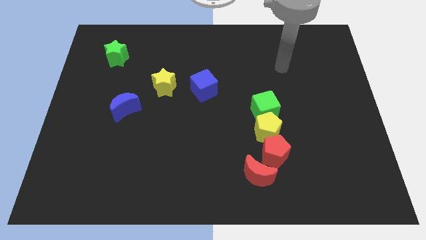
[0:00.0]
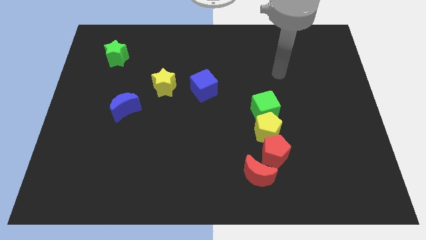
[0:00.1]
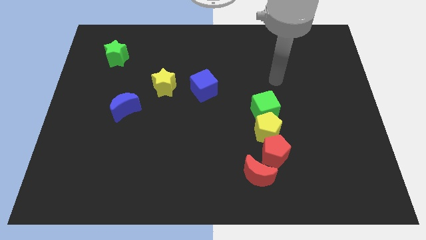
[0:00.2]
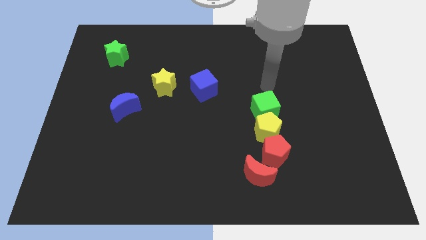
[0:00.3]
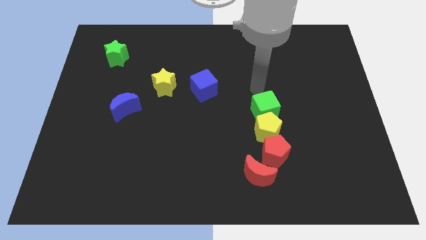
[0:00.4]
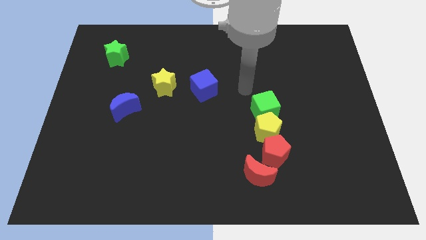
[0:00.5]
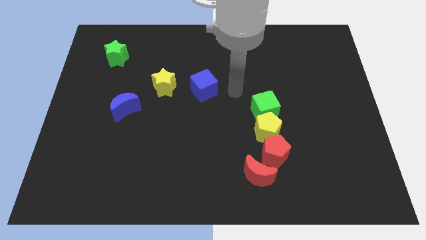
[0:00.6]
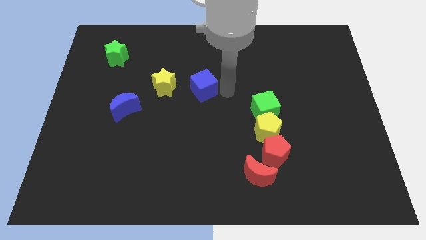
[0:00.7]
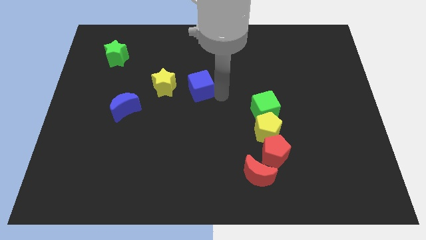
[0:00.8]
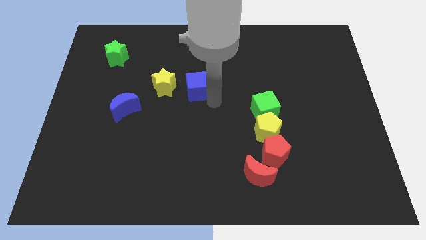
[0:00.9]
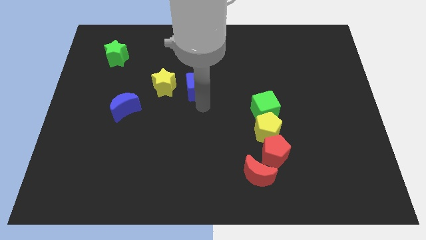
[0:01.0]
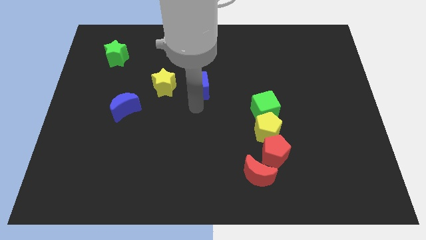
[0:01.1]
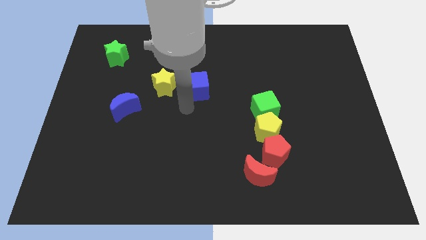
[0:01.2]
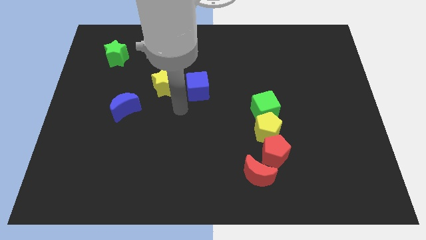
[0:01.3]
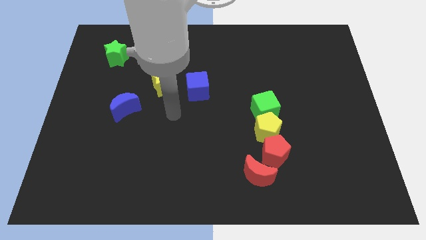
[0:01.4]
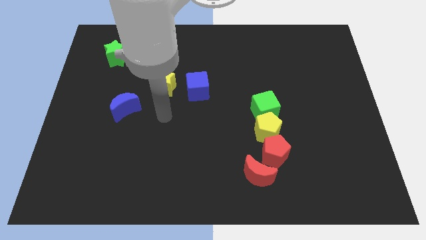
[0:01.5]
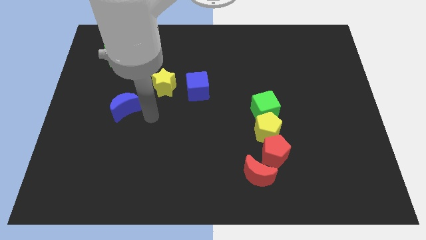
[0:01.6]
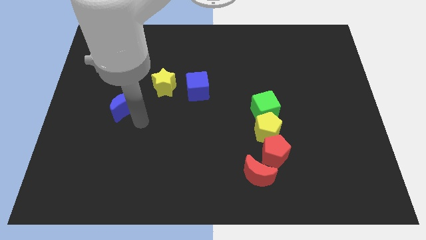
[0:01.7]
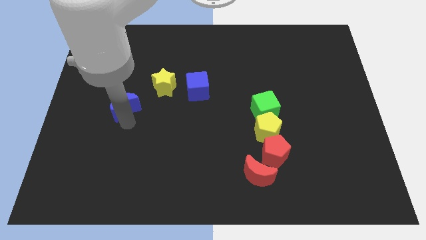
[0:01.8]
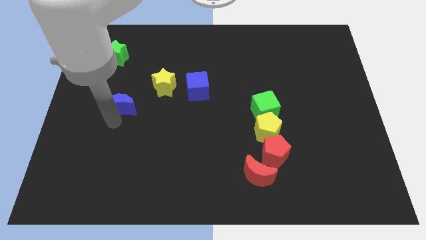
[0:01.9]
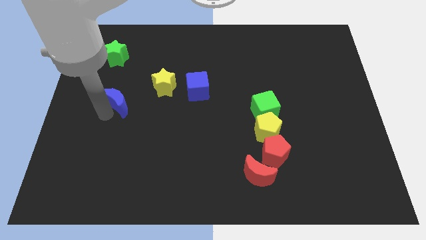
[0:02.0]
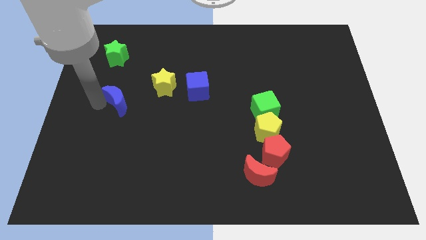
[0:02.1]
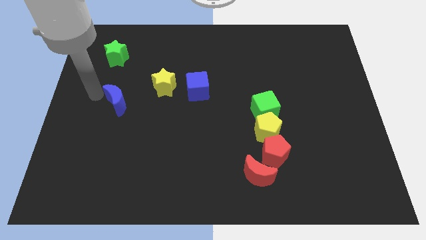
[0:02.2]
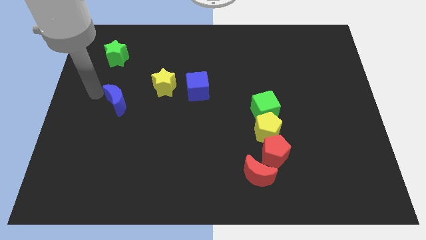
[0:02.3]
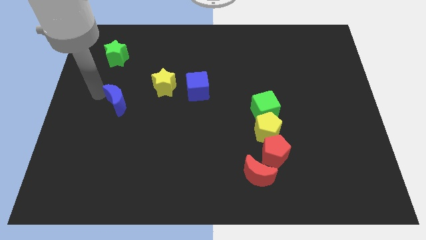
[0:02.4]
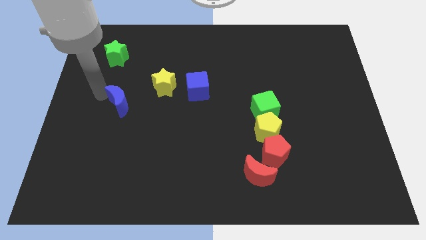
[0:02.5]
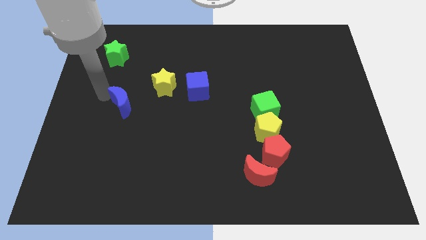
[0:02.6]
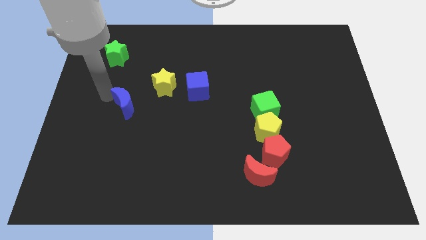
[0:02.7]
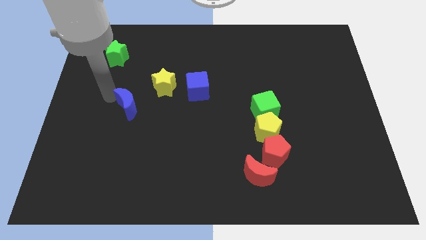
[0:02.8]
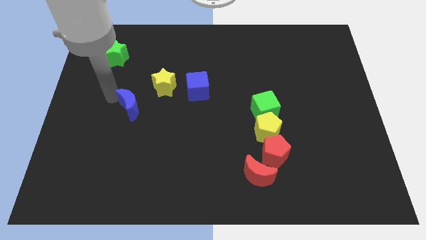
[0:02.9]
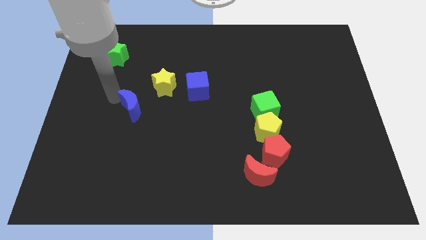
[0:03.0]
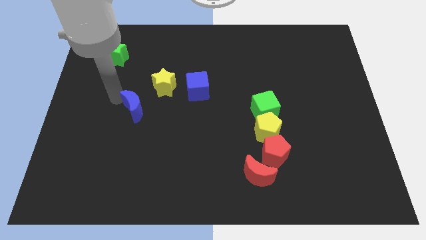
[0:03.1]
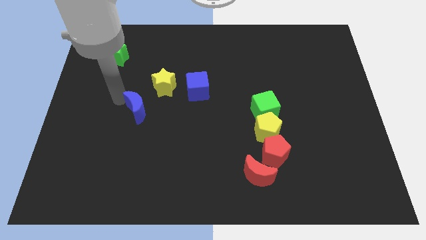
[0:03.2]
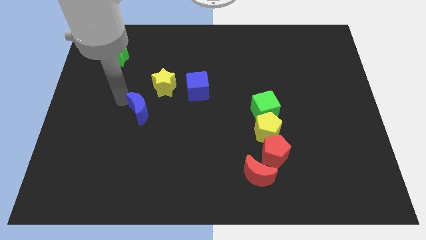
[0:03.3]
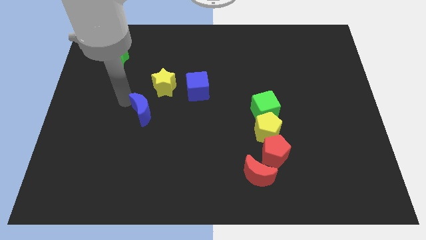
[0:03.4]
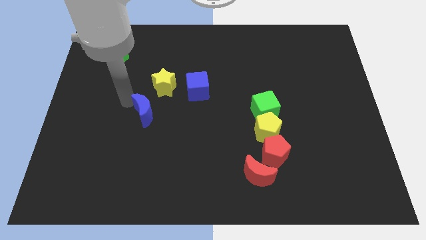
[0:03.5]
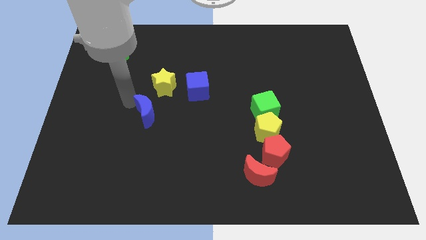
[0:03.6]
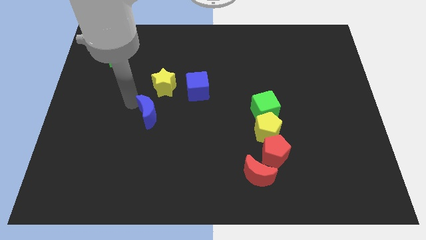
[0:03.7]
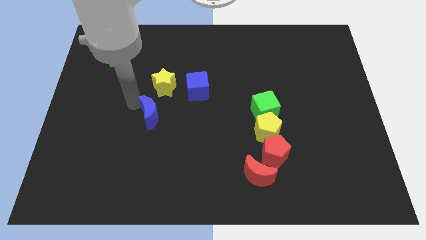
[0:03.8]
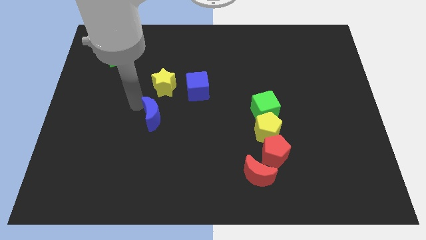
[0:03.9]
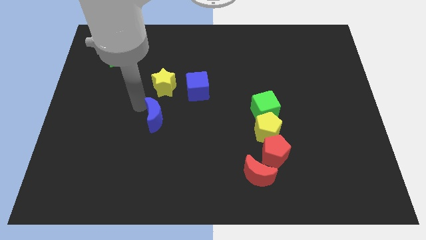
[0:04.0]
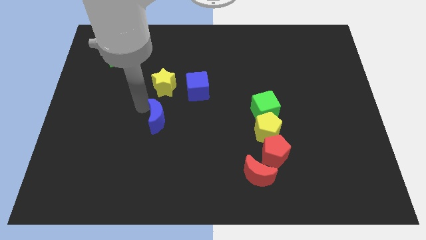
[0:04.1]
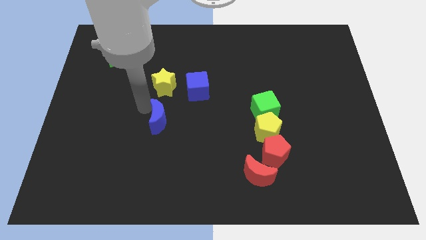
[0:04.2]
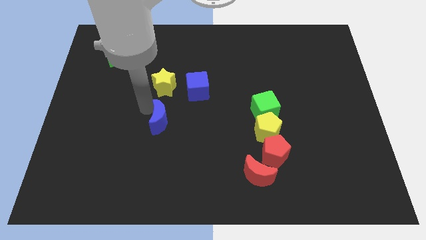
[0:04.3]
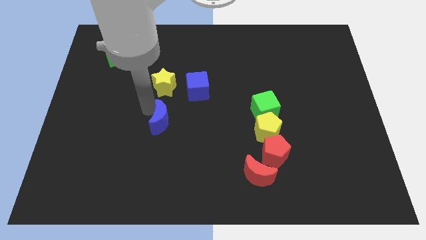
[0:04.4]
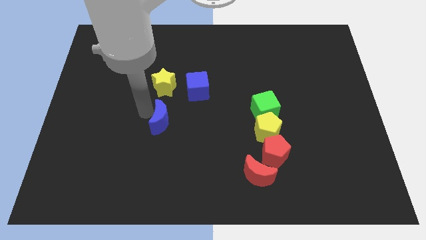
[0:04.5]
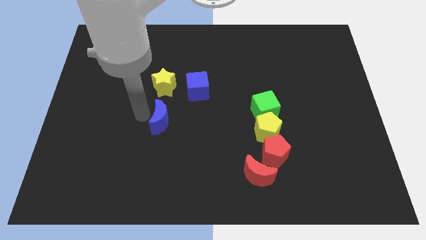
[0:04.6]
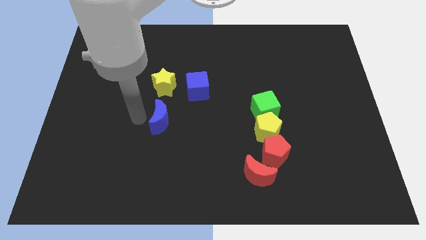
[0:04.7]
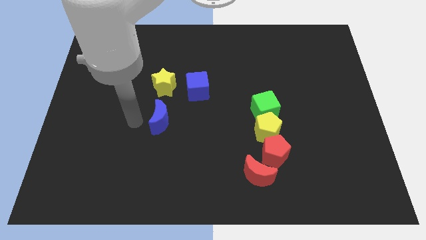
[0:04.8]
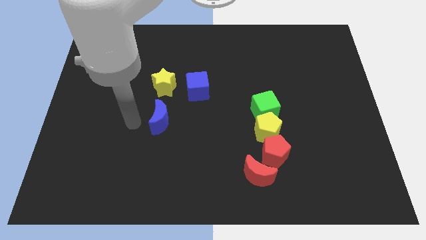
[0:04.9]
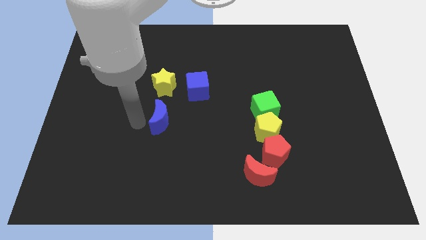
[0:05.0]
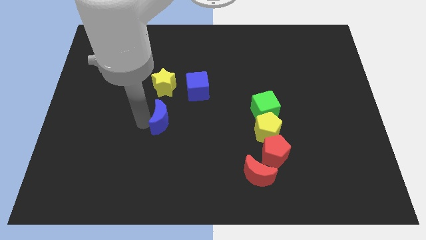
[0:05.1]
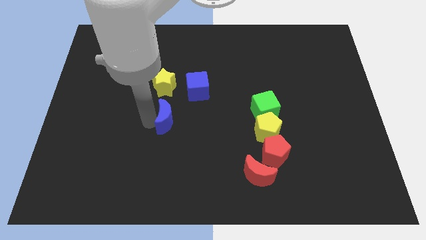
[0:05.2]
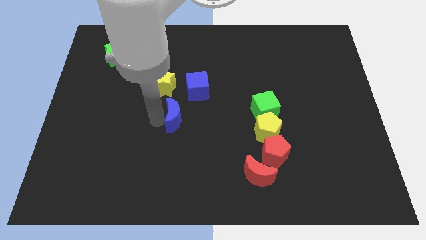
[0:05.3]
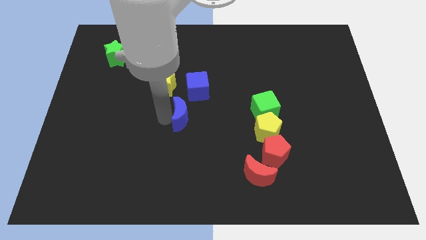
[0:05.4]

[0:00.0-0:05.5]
slide the blue moon to the bottom of the blue cube

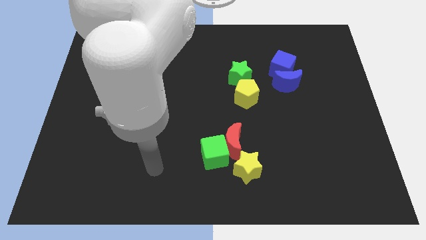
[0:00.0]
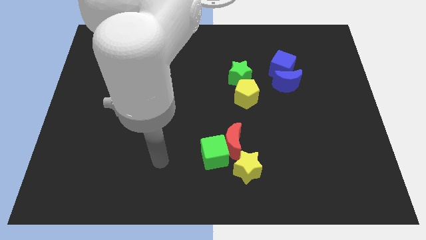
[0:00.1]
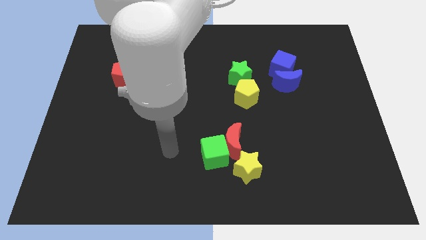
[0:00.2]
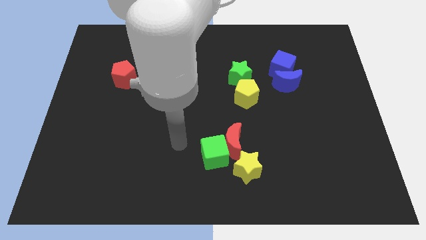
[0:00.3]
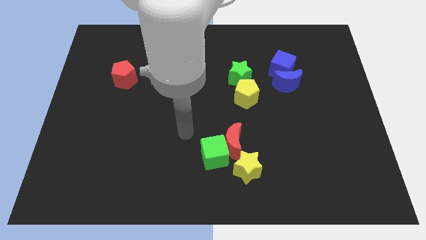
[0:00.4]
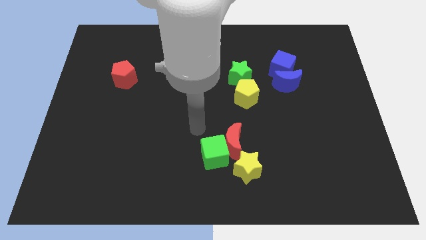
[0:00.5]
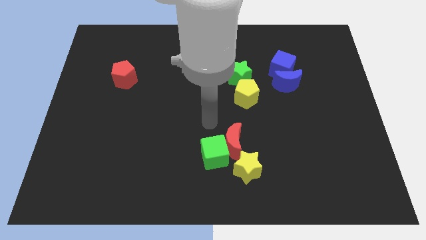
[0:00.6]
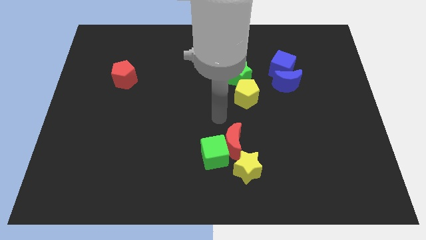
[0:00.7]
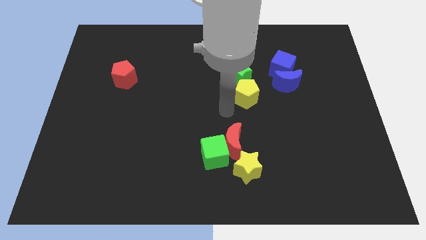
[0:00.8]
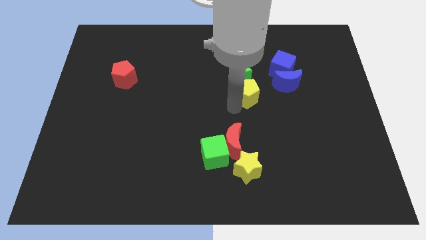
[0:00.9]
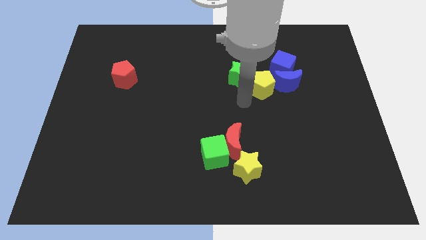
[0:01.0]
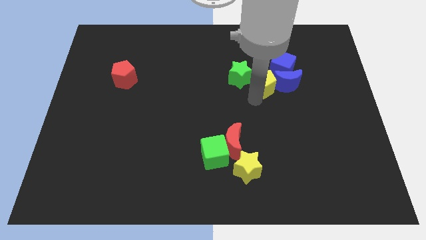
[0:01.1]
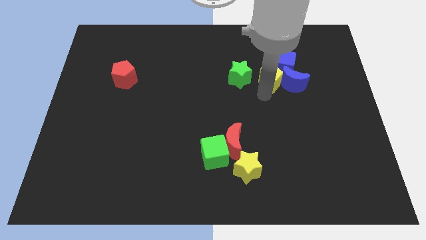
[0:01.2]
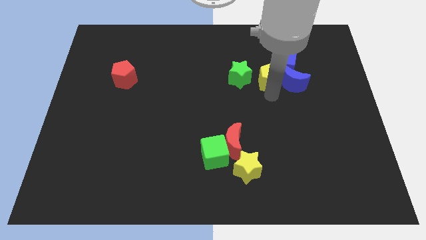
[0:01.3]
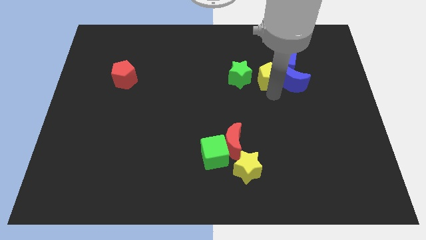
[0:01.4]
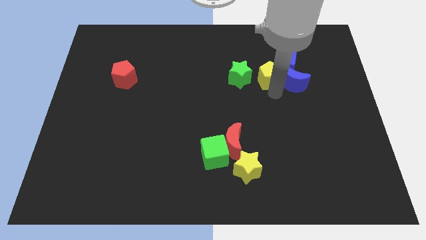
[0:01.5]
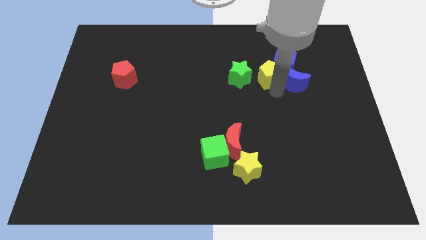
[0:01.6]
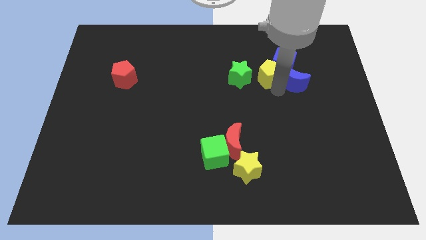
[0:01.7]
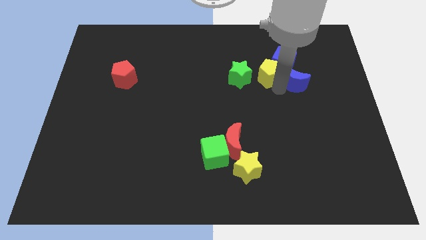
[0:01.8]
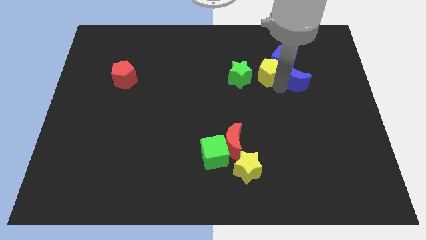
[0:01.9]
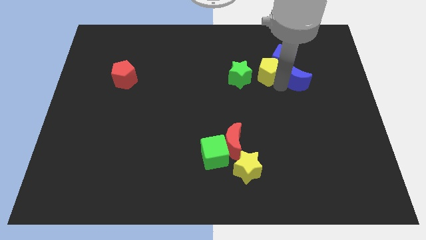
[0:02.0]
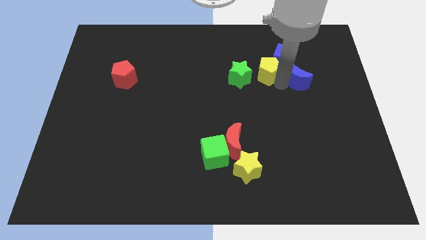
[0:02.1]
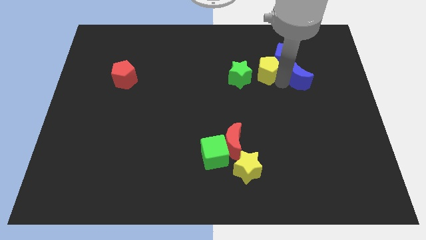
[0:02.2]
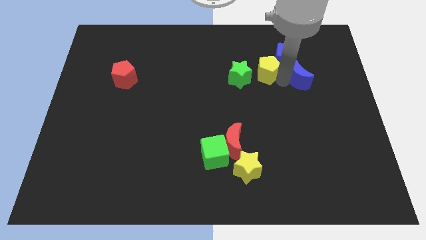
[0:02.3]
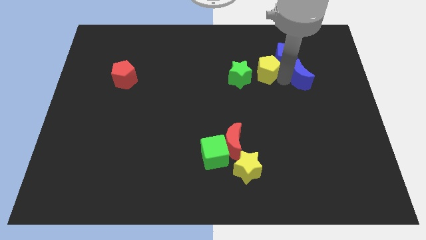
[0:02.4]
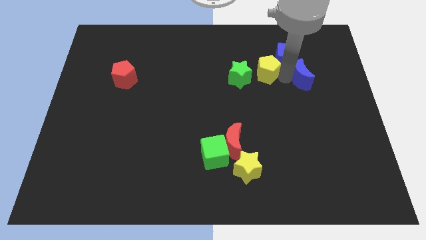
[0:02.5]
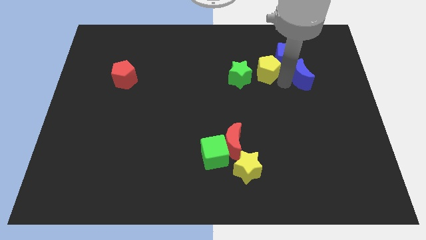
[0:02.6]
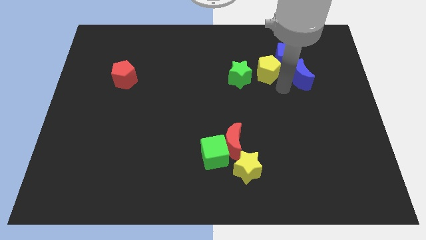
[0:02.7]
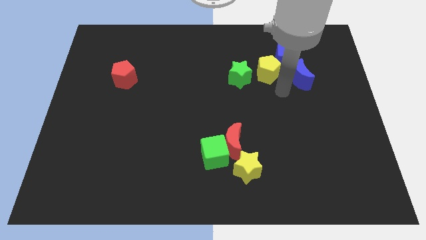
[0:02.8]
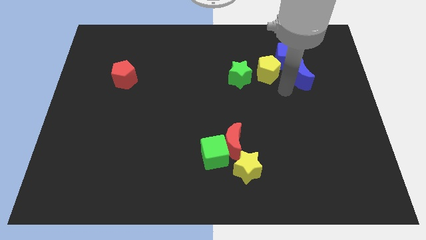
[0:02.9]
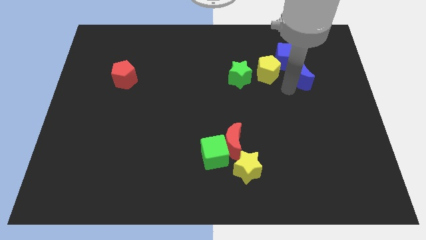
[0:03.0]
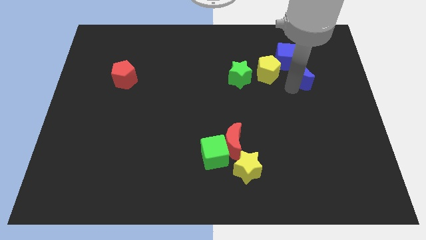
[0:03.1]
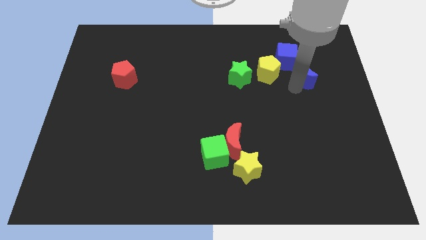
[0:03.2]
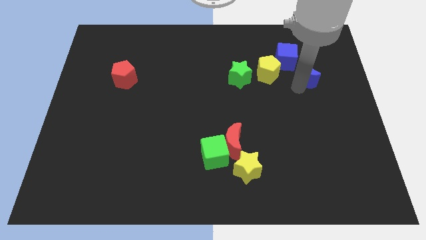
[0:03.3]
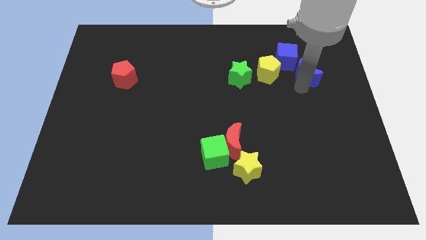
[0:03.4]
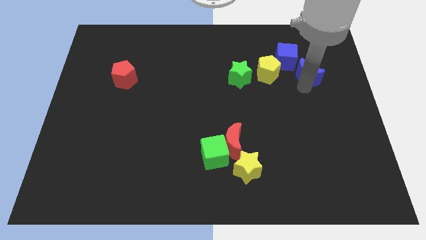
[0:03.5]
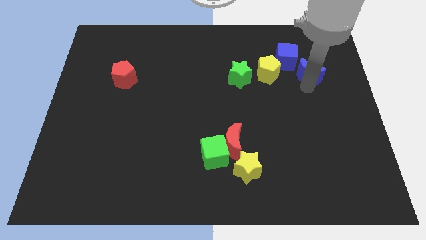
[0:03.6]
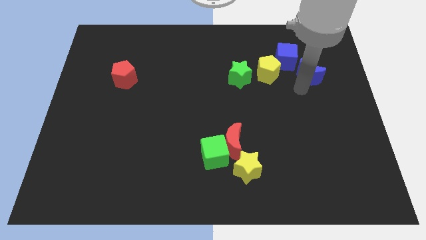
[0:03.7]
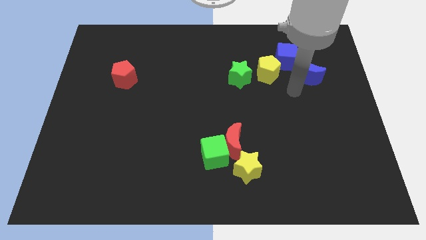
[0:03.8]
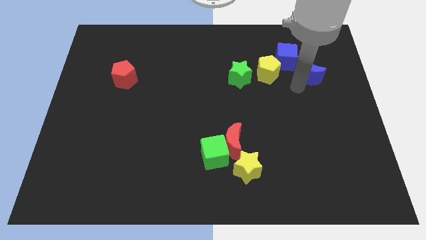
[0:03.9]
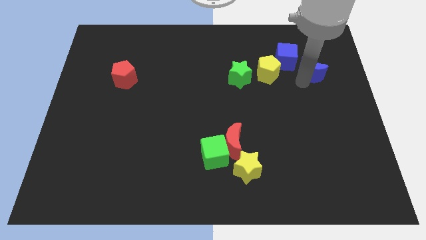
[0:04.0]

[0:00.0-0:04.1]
move the blue moon to the right side of the blue cube
